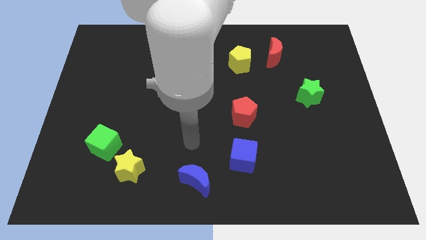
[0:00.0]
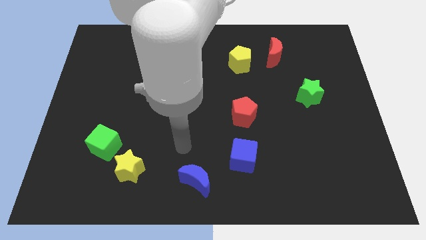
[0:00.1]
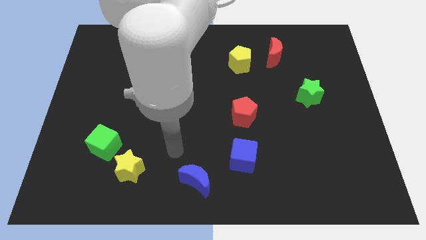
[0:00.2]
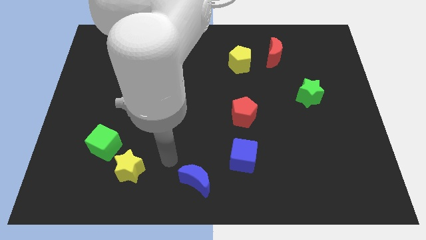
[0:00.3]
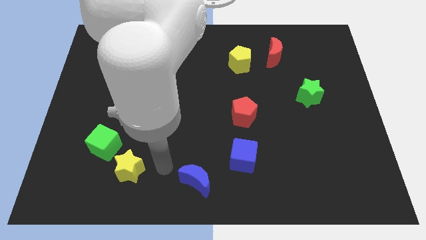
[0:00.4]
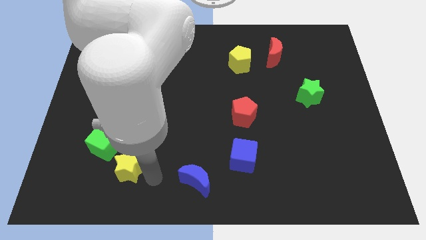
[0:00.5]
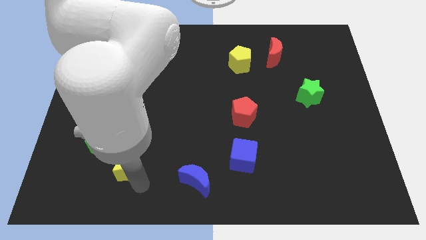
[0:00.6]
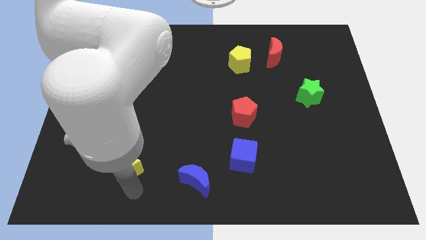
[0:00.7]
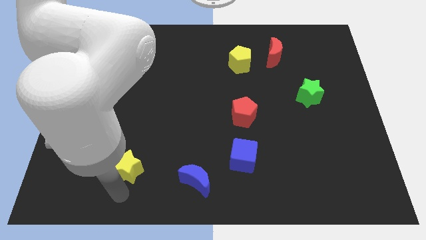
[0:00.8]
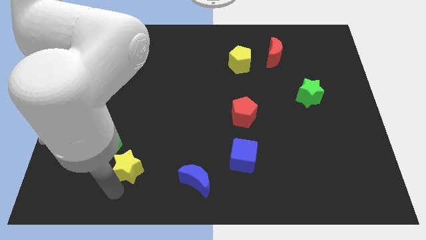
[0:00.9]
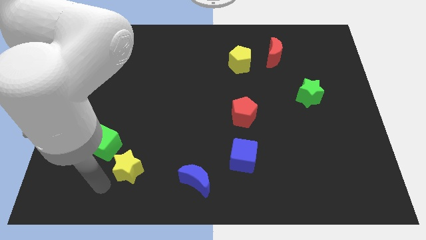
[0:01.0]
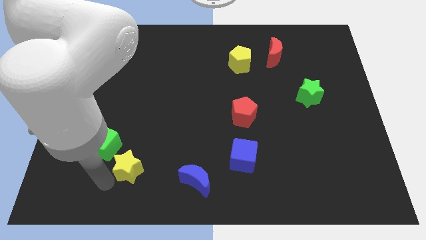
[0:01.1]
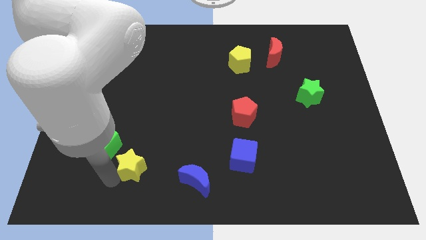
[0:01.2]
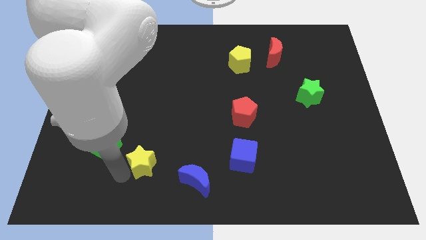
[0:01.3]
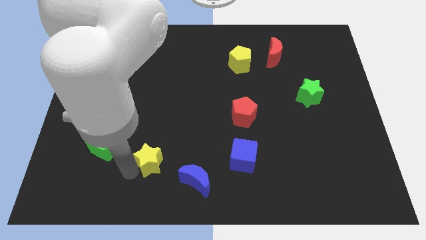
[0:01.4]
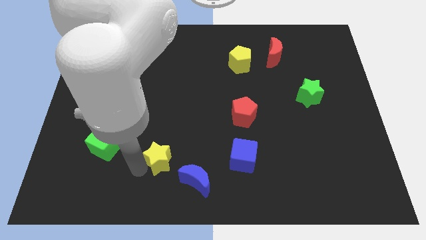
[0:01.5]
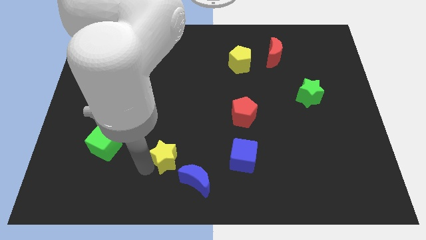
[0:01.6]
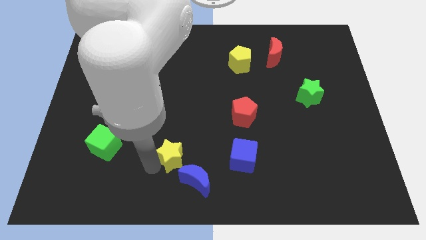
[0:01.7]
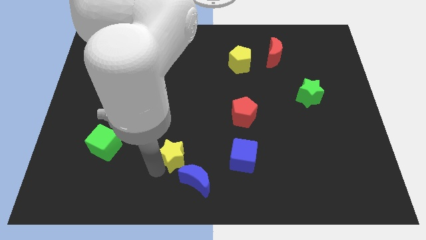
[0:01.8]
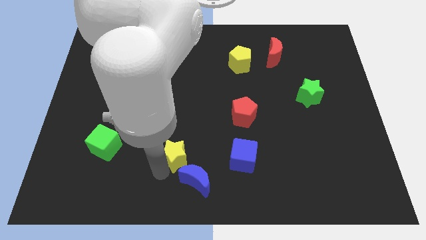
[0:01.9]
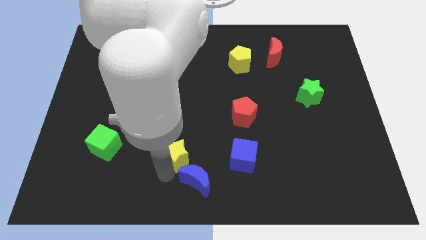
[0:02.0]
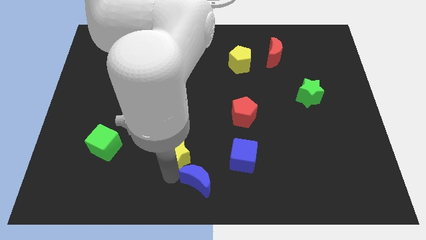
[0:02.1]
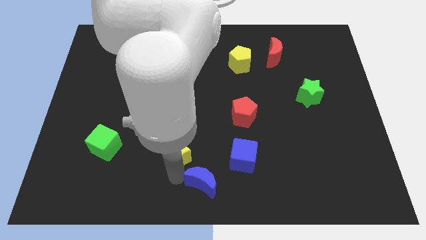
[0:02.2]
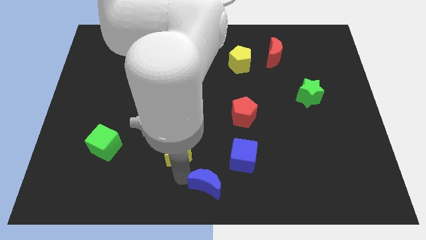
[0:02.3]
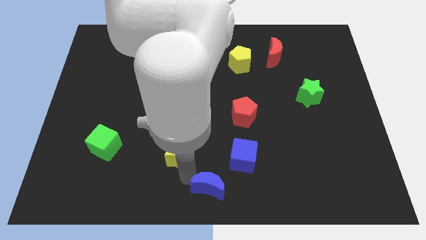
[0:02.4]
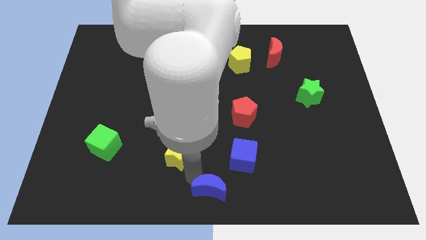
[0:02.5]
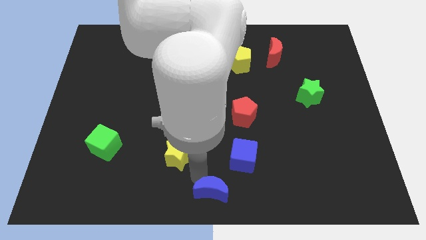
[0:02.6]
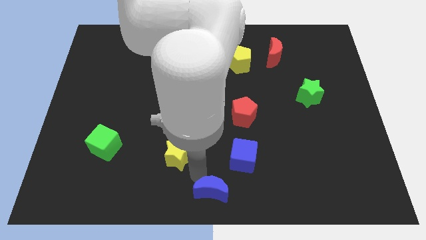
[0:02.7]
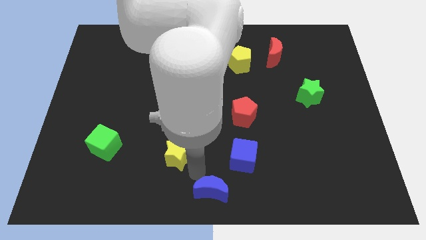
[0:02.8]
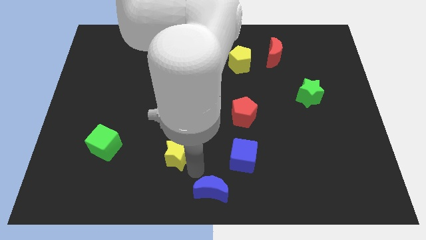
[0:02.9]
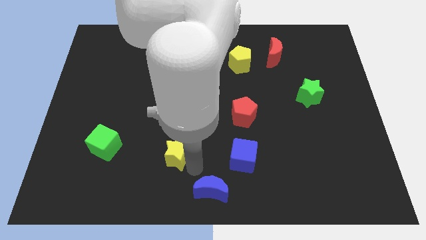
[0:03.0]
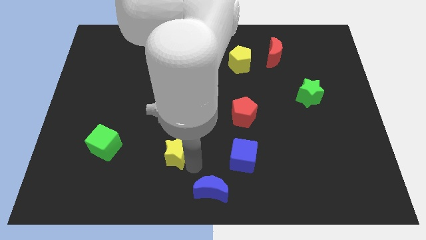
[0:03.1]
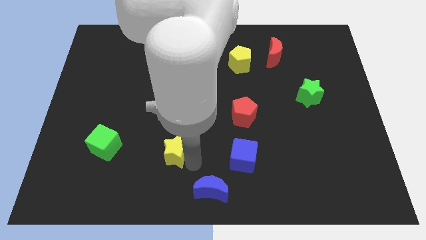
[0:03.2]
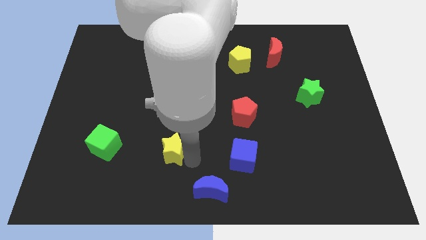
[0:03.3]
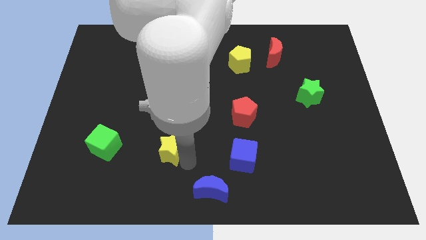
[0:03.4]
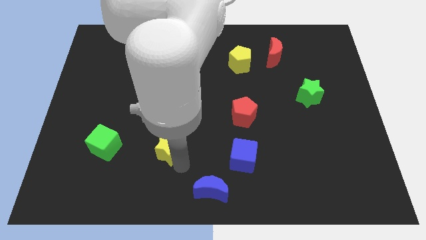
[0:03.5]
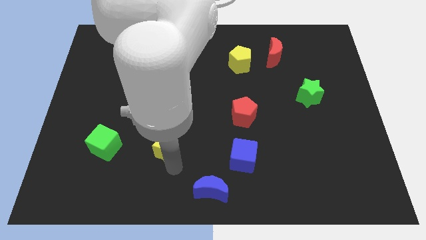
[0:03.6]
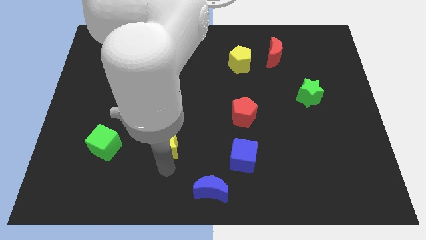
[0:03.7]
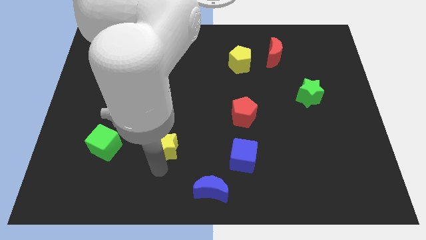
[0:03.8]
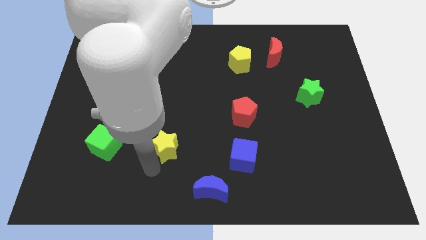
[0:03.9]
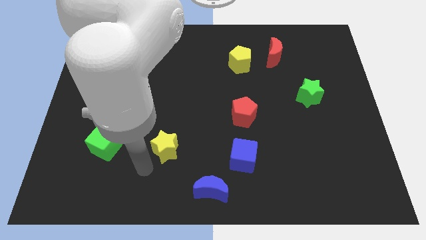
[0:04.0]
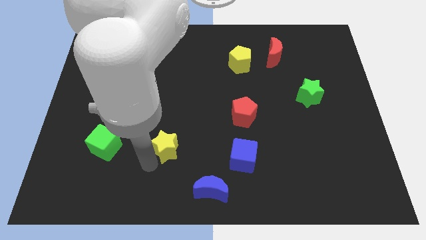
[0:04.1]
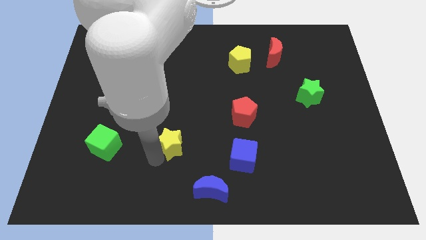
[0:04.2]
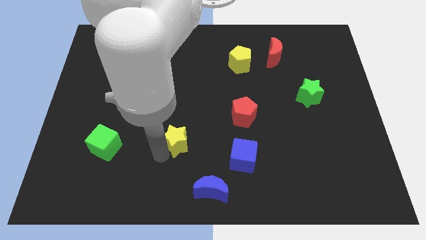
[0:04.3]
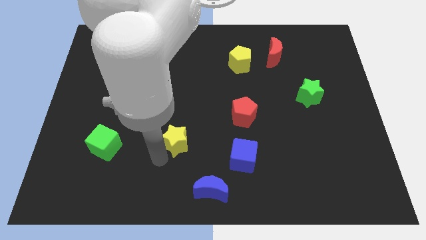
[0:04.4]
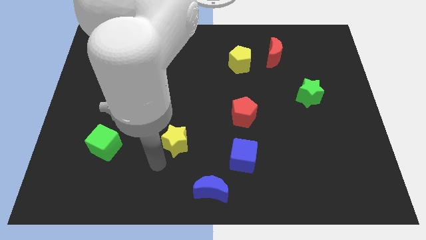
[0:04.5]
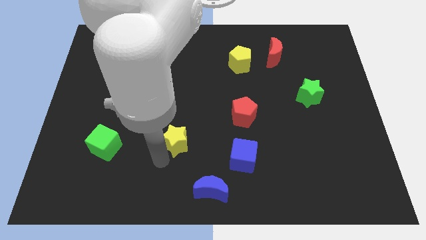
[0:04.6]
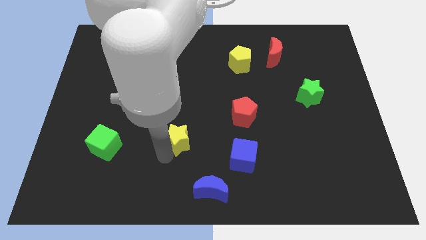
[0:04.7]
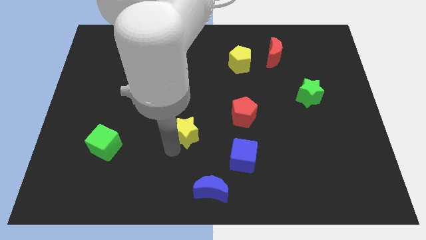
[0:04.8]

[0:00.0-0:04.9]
slide the yellow star to the middle

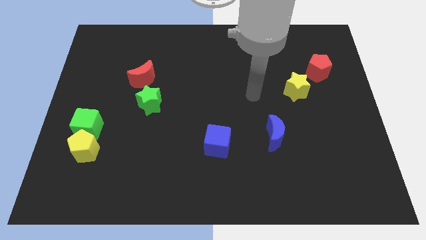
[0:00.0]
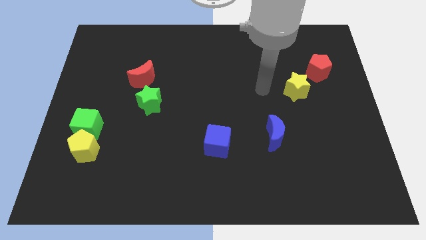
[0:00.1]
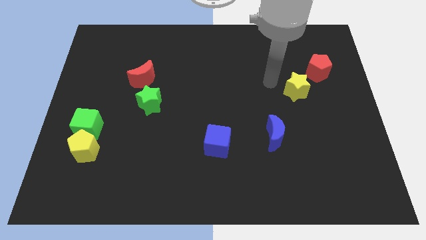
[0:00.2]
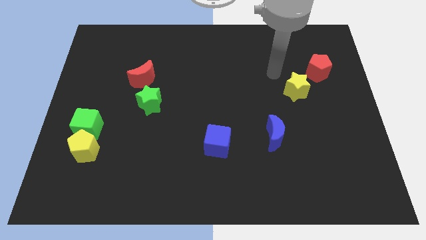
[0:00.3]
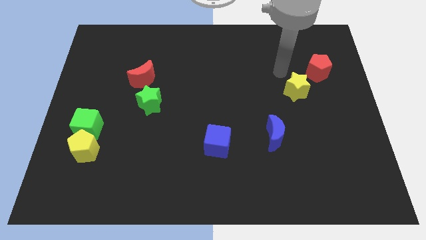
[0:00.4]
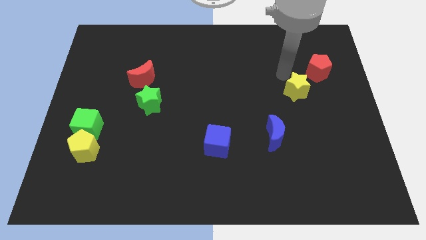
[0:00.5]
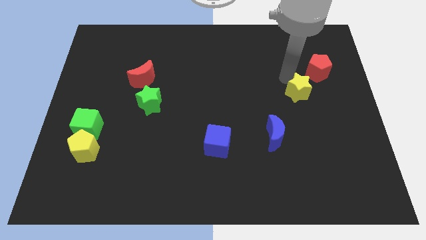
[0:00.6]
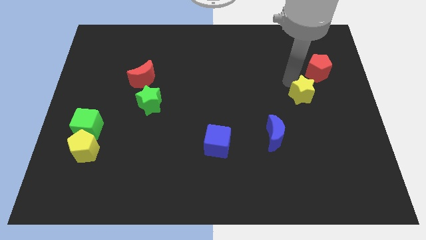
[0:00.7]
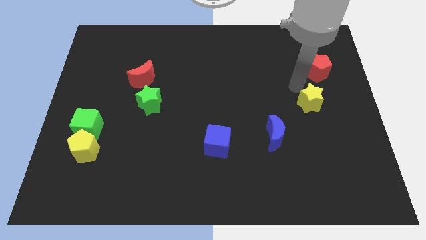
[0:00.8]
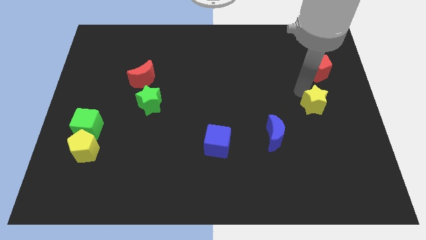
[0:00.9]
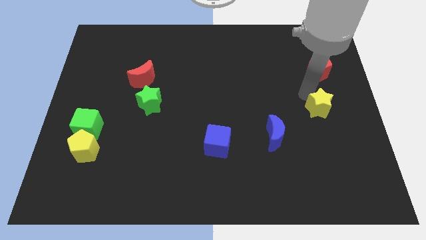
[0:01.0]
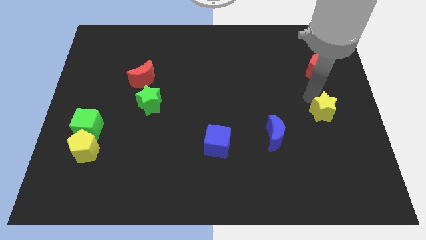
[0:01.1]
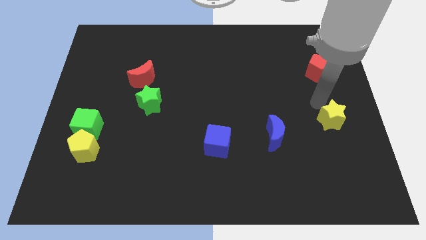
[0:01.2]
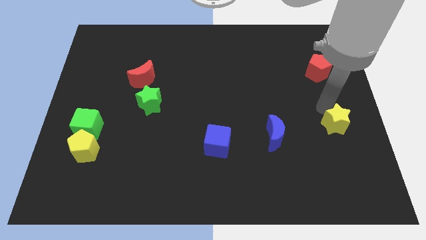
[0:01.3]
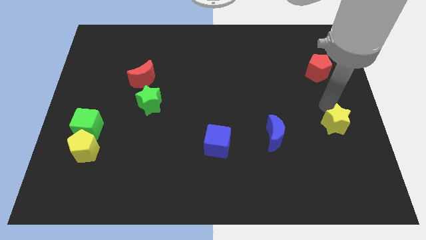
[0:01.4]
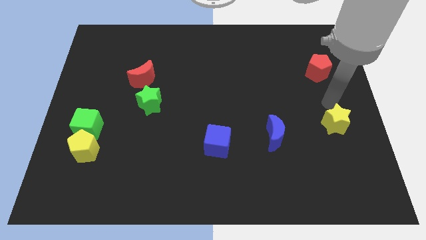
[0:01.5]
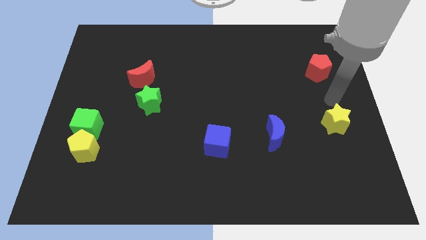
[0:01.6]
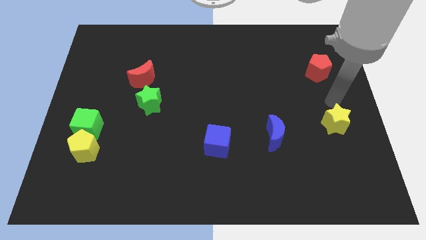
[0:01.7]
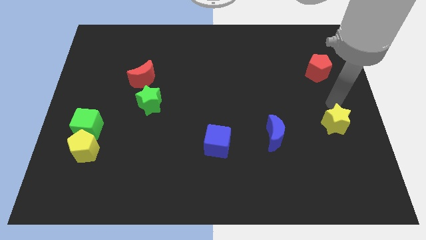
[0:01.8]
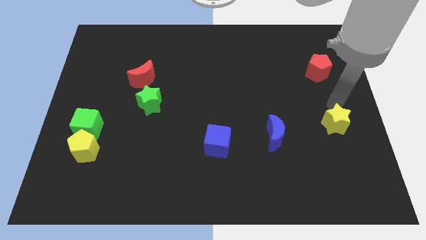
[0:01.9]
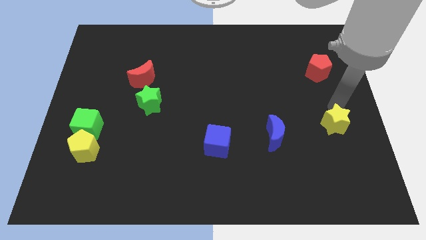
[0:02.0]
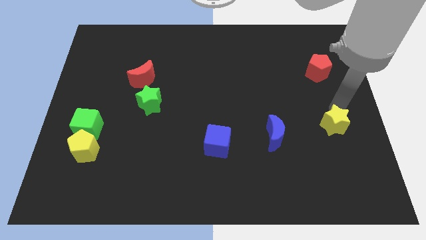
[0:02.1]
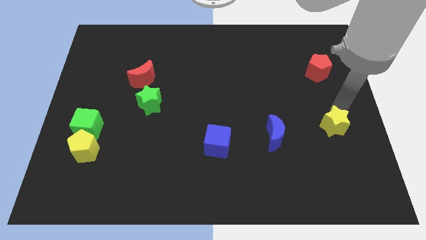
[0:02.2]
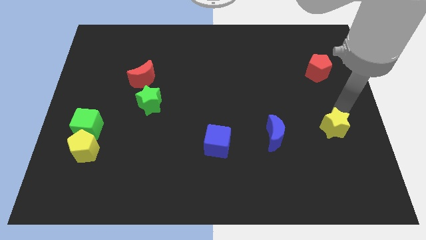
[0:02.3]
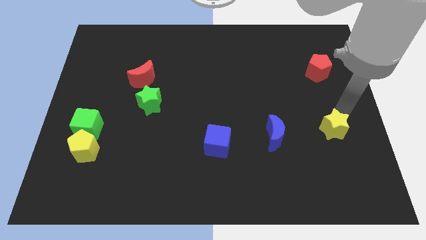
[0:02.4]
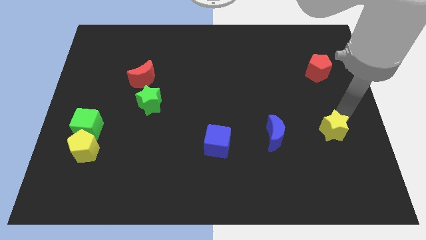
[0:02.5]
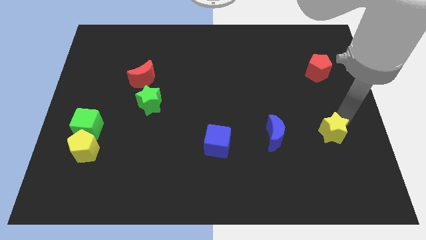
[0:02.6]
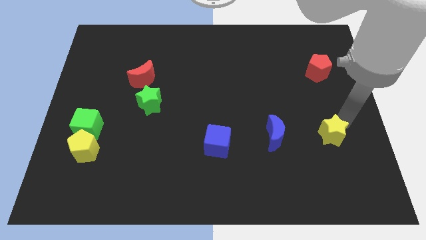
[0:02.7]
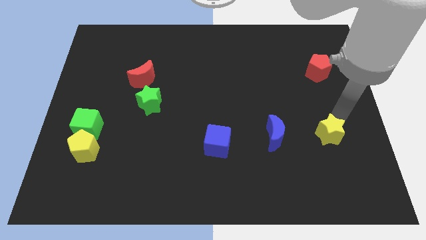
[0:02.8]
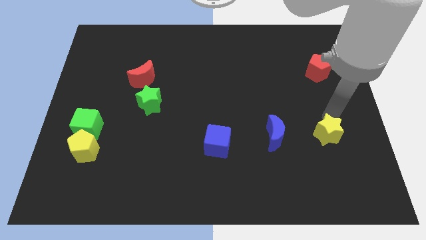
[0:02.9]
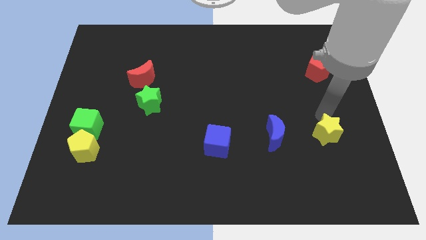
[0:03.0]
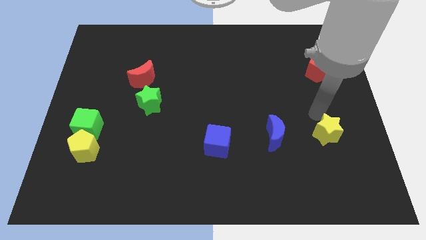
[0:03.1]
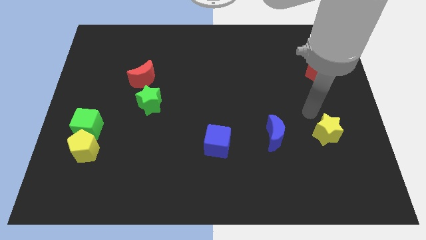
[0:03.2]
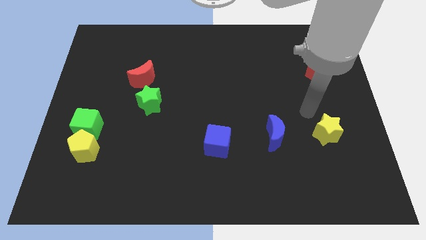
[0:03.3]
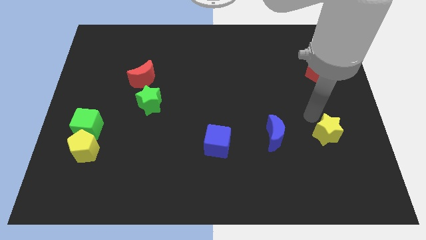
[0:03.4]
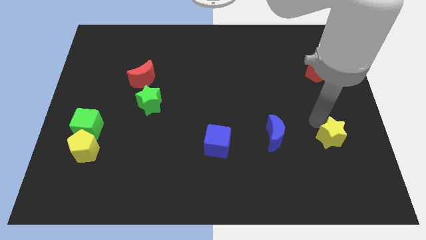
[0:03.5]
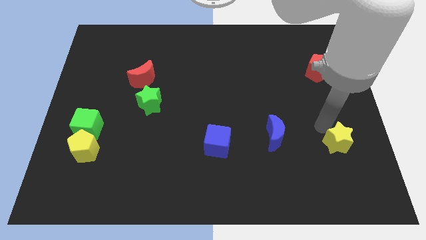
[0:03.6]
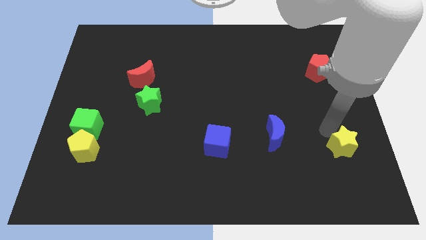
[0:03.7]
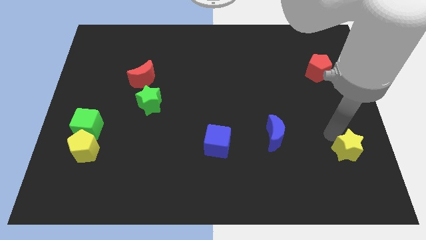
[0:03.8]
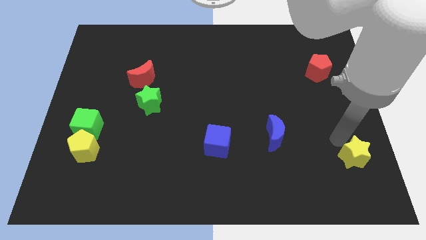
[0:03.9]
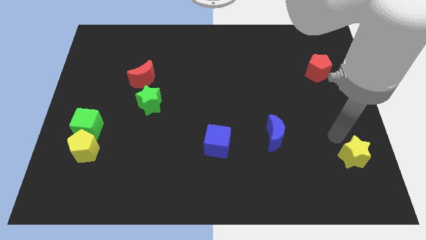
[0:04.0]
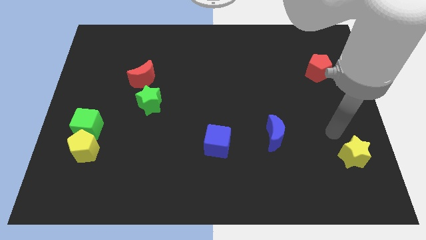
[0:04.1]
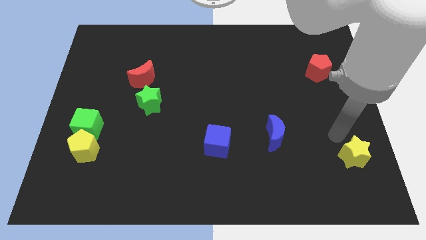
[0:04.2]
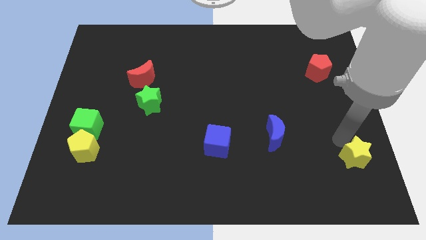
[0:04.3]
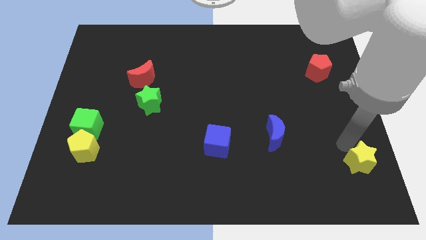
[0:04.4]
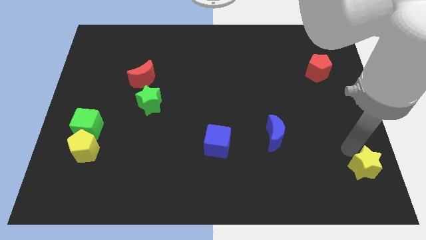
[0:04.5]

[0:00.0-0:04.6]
slide the yellow star to the bottom right of the board
